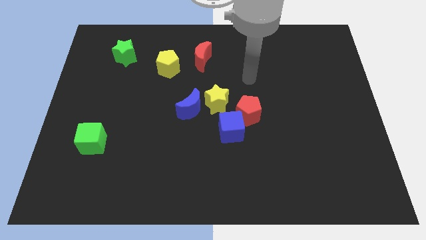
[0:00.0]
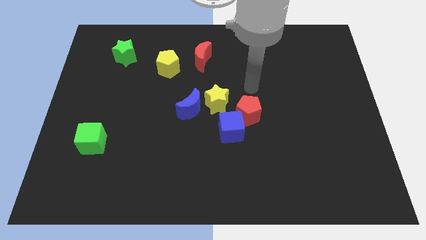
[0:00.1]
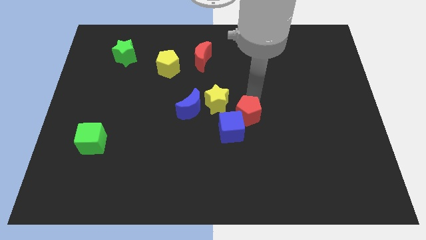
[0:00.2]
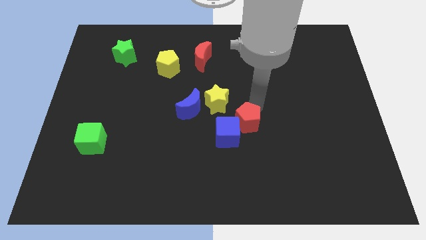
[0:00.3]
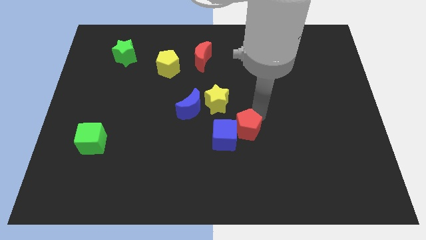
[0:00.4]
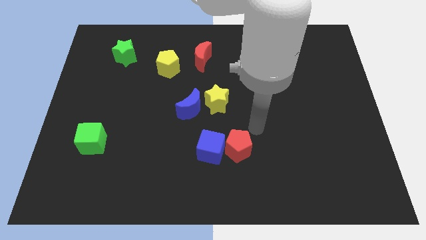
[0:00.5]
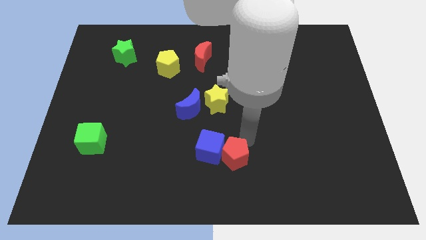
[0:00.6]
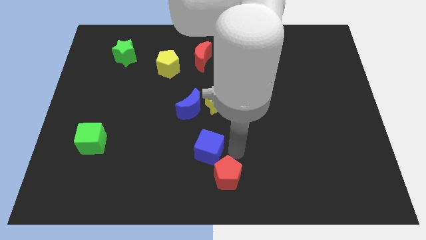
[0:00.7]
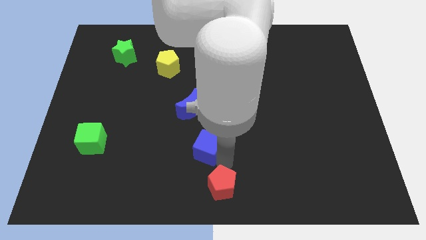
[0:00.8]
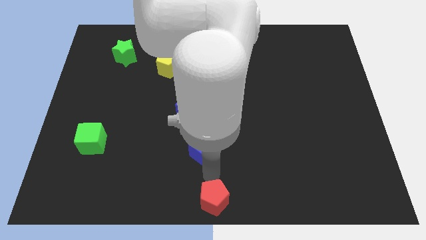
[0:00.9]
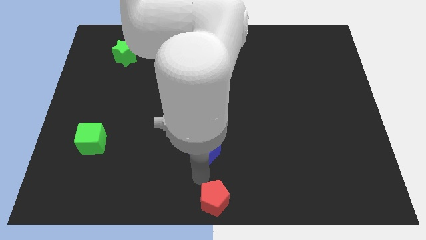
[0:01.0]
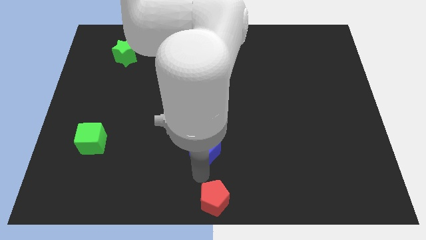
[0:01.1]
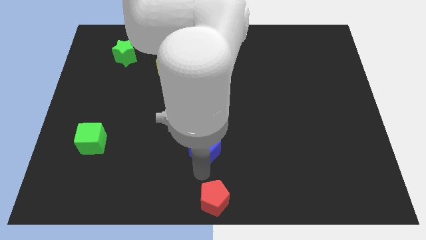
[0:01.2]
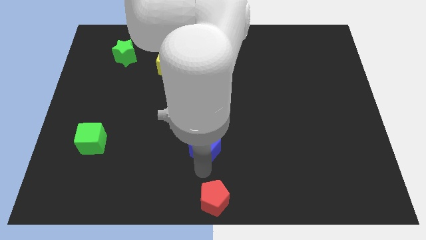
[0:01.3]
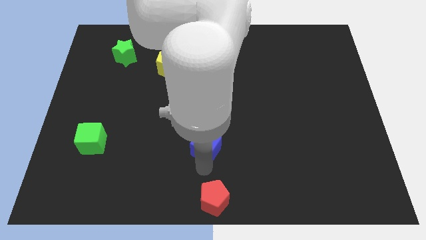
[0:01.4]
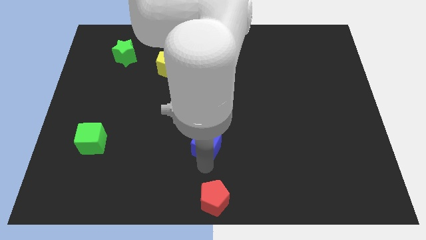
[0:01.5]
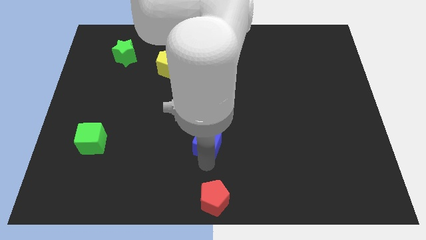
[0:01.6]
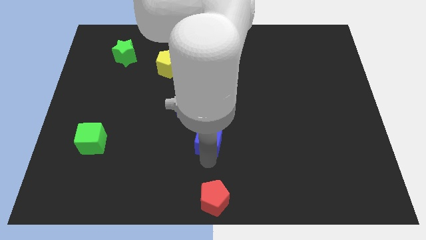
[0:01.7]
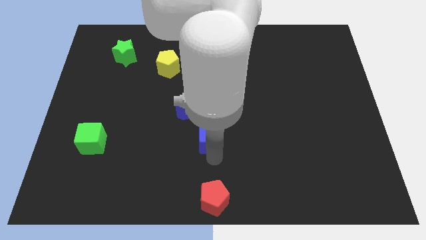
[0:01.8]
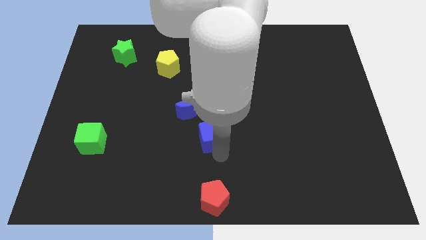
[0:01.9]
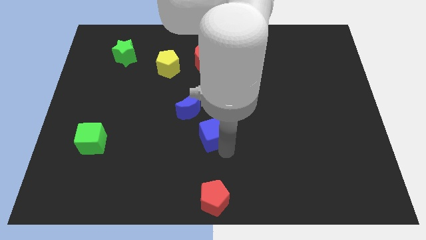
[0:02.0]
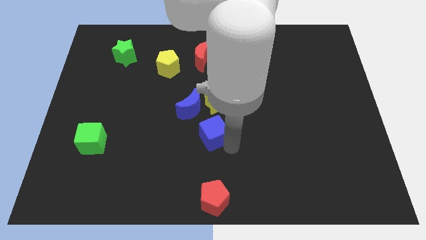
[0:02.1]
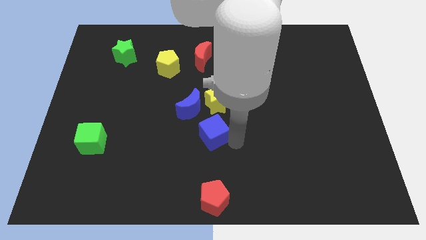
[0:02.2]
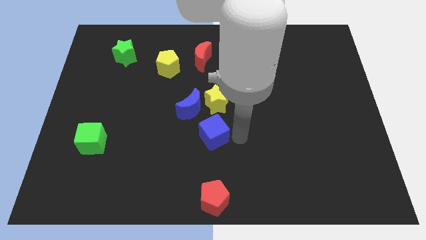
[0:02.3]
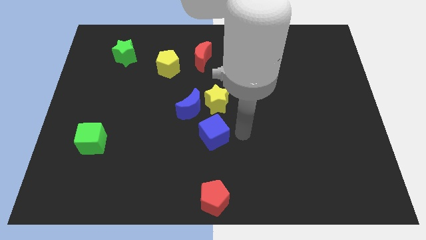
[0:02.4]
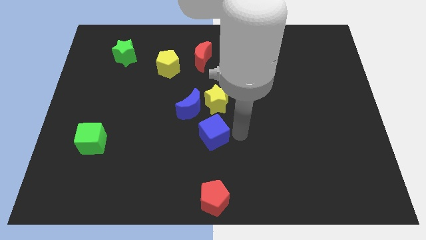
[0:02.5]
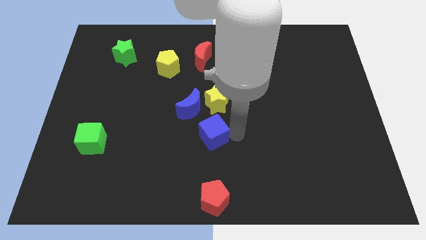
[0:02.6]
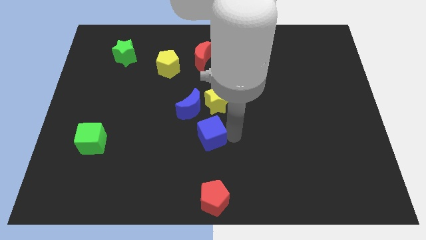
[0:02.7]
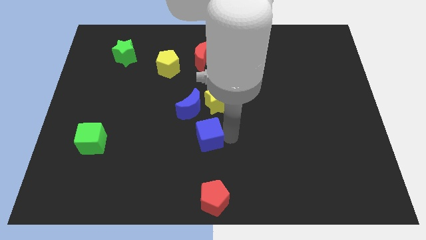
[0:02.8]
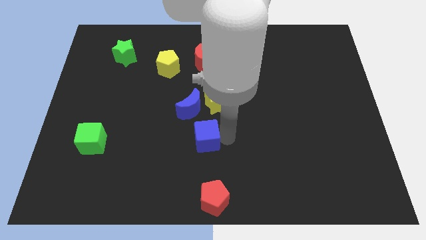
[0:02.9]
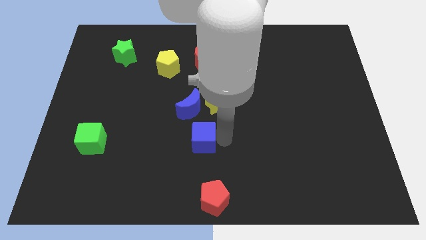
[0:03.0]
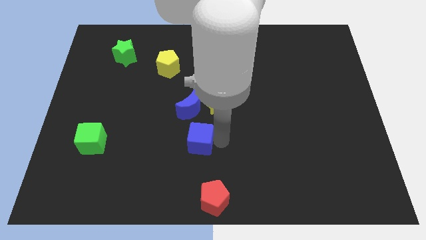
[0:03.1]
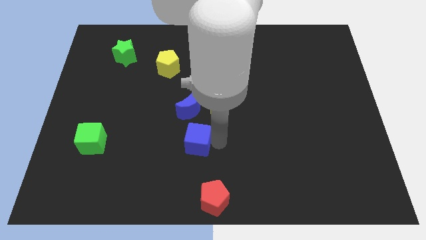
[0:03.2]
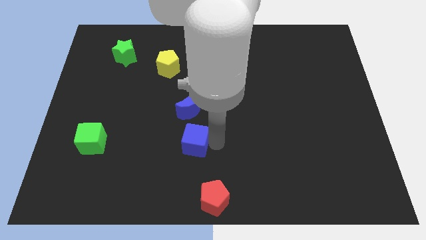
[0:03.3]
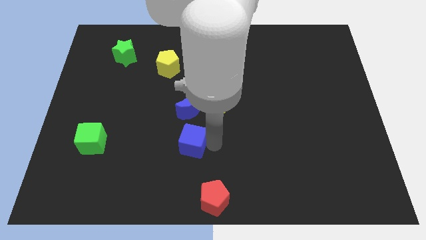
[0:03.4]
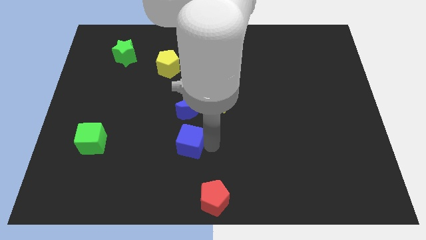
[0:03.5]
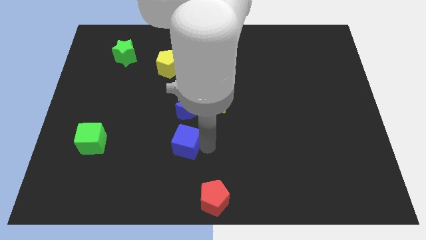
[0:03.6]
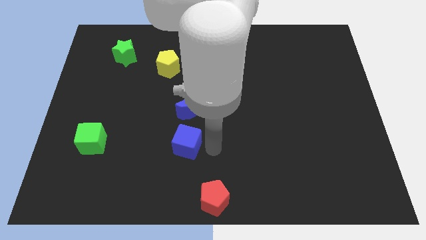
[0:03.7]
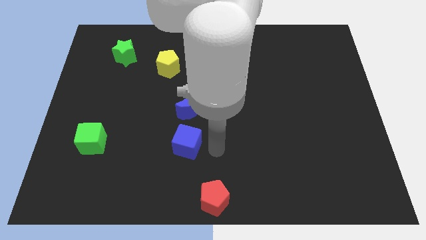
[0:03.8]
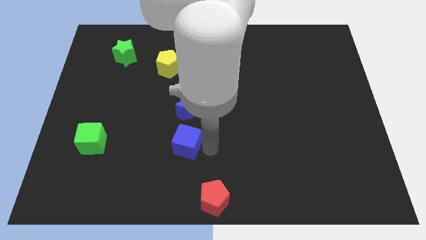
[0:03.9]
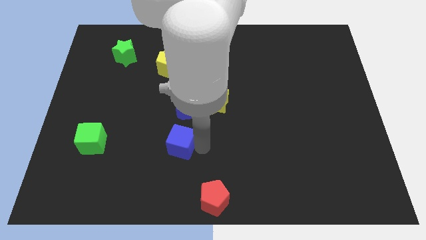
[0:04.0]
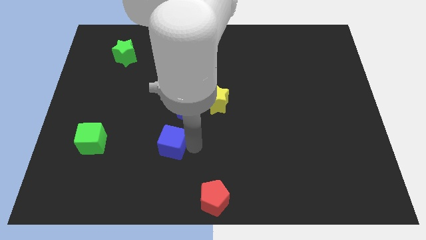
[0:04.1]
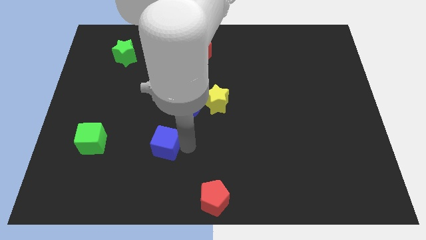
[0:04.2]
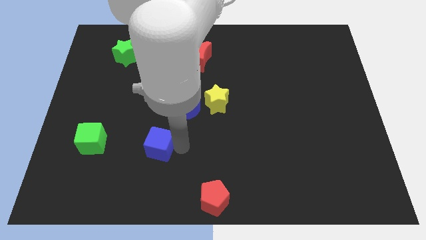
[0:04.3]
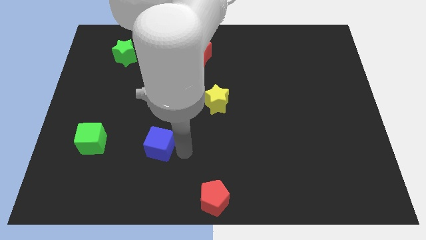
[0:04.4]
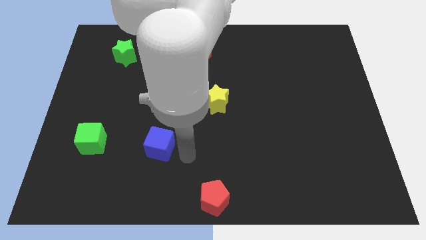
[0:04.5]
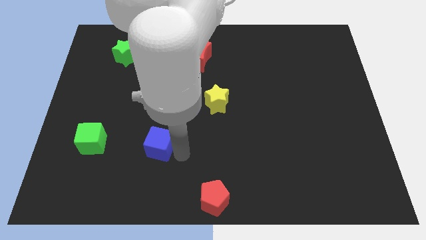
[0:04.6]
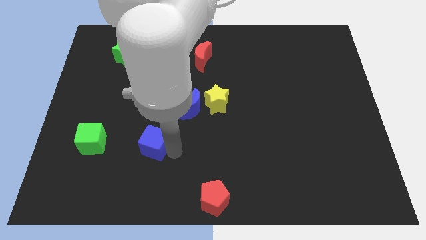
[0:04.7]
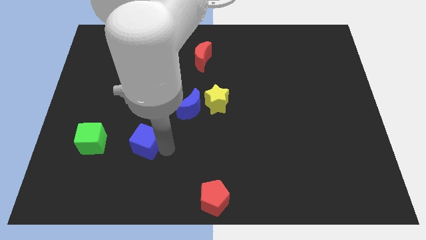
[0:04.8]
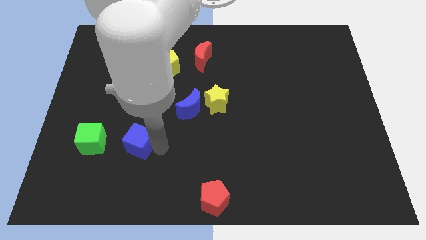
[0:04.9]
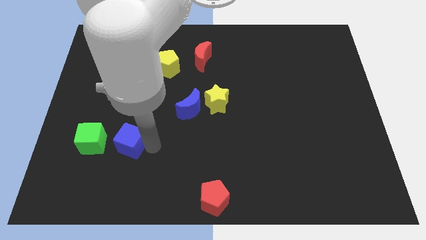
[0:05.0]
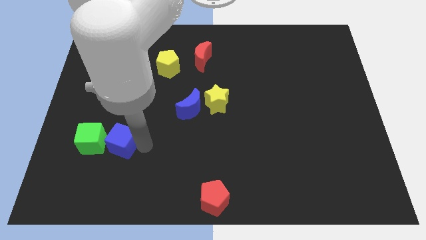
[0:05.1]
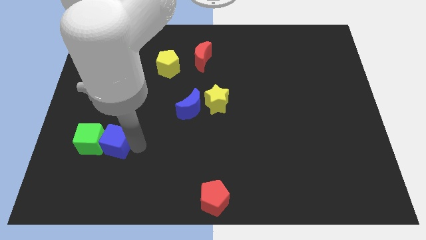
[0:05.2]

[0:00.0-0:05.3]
slide the blue cube to the green cube

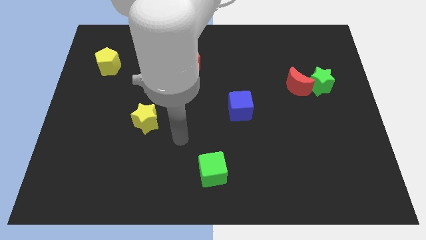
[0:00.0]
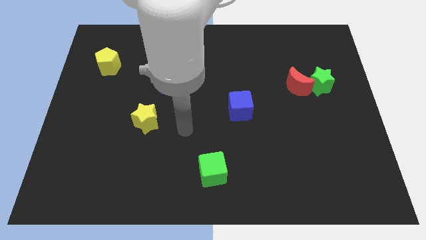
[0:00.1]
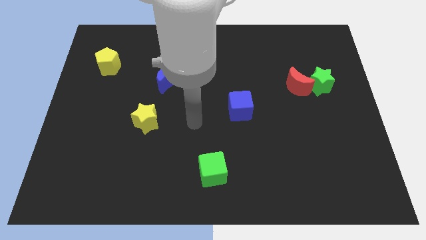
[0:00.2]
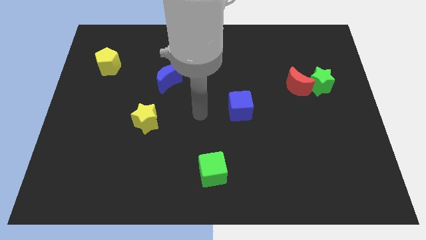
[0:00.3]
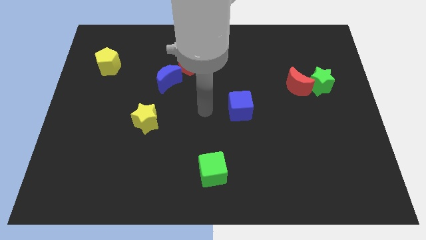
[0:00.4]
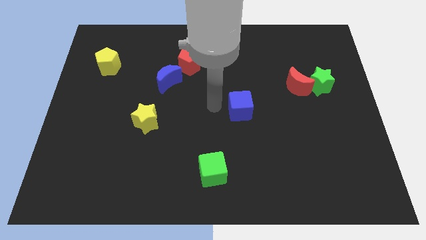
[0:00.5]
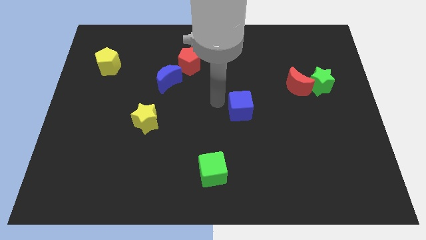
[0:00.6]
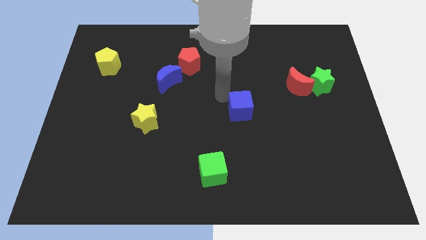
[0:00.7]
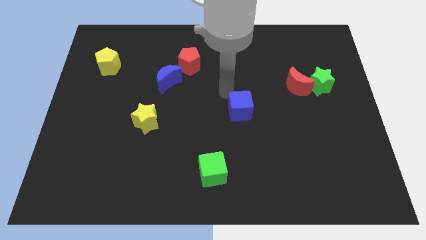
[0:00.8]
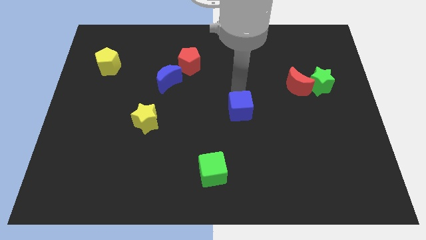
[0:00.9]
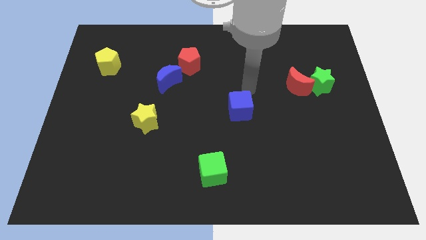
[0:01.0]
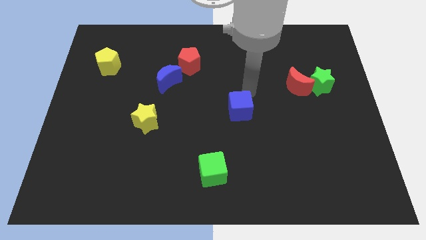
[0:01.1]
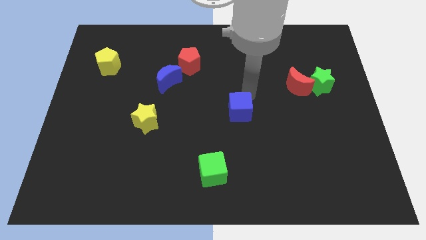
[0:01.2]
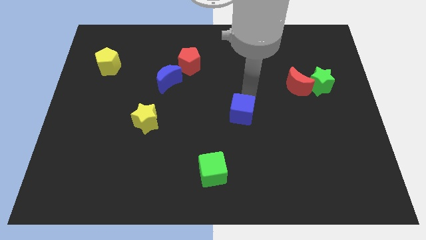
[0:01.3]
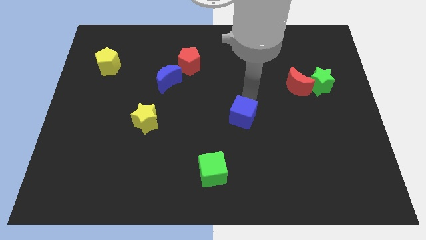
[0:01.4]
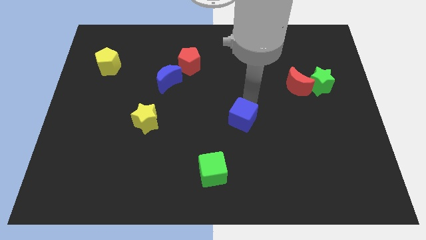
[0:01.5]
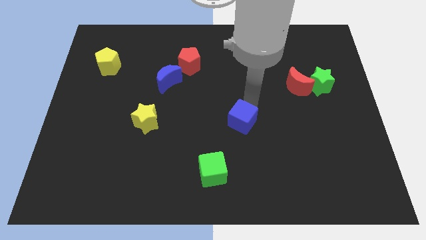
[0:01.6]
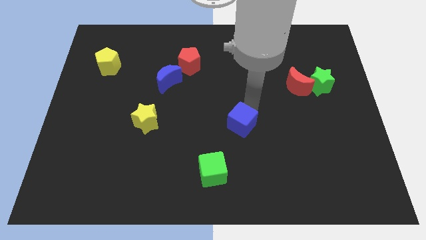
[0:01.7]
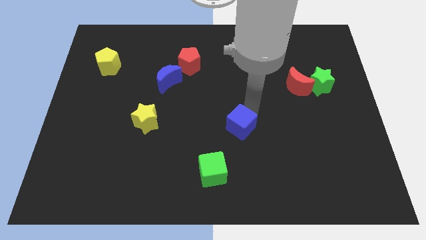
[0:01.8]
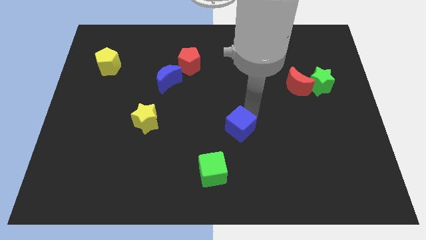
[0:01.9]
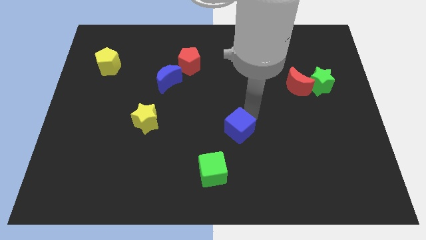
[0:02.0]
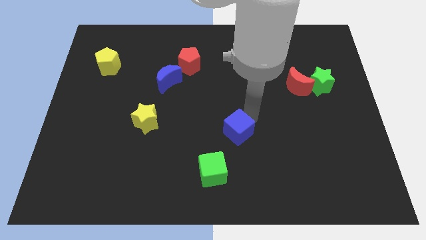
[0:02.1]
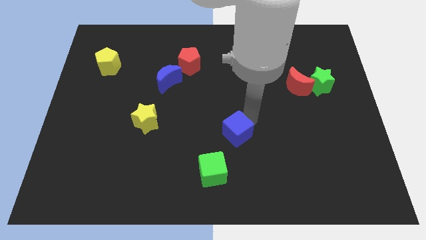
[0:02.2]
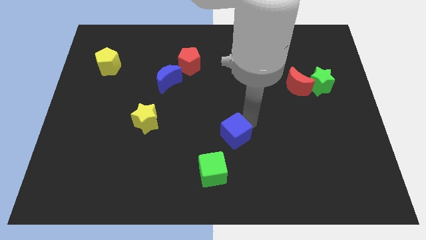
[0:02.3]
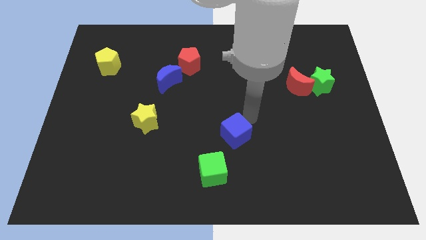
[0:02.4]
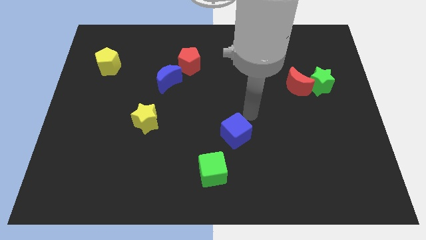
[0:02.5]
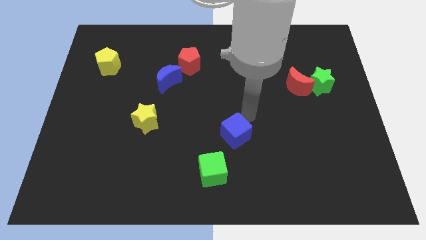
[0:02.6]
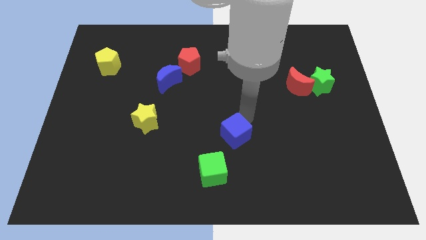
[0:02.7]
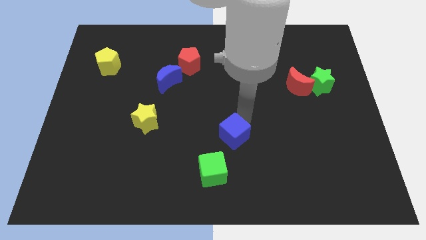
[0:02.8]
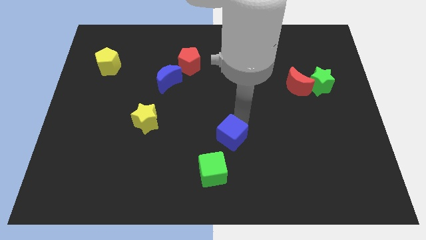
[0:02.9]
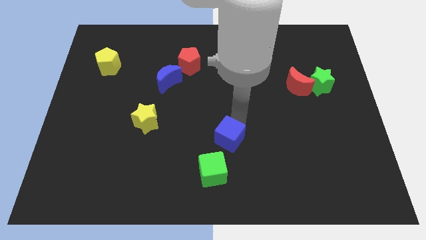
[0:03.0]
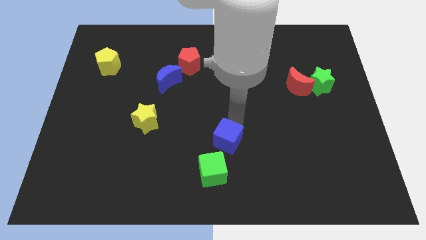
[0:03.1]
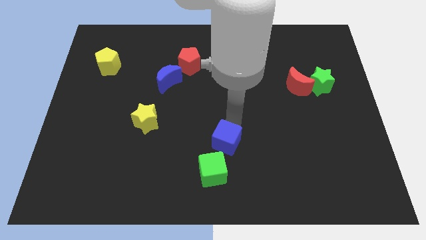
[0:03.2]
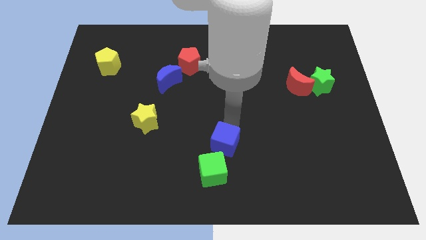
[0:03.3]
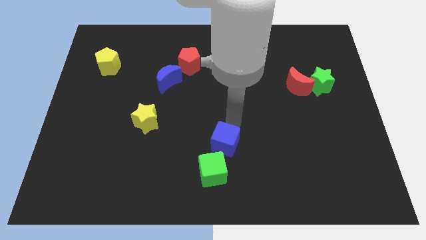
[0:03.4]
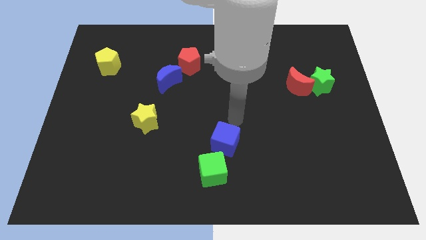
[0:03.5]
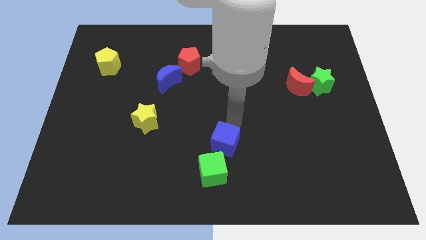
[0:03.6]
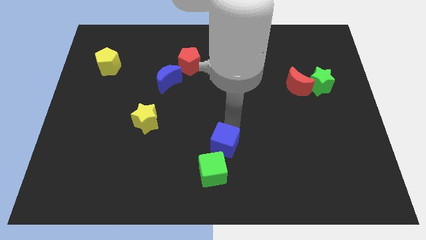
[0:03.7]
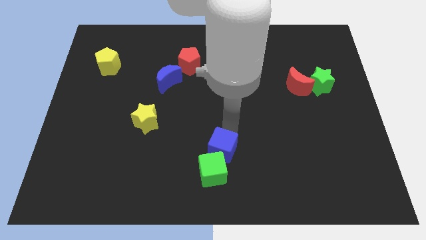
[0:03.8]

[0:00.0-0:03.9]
move the blue cube towards the green cube
